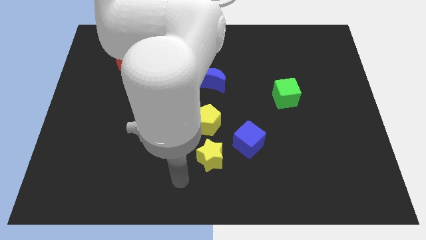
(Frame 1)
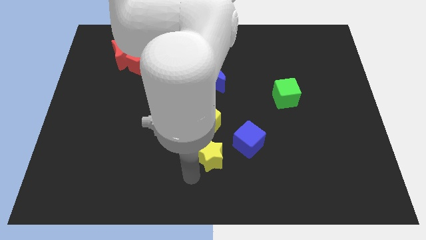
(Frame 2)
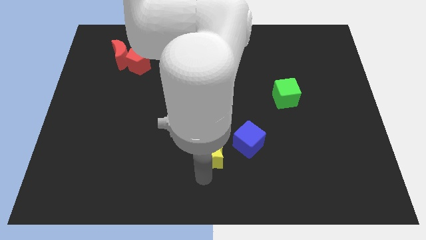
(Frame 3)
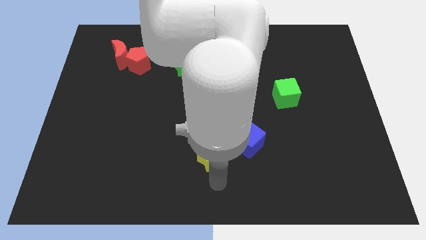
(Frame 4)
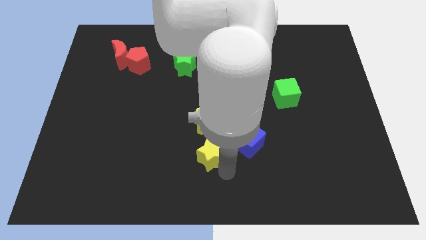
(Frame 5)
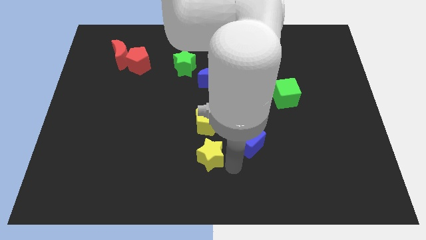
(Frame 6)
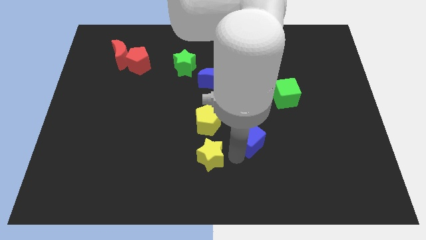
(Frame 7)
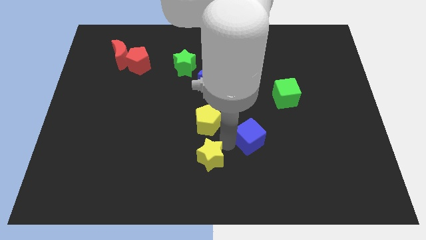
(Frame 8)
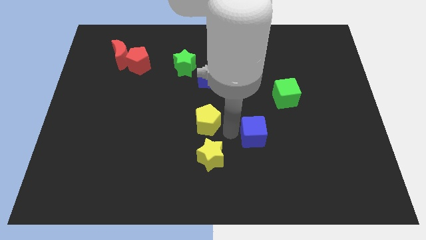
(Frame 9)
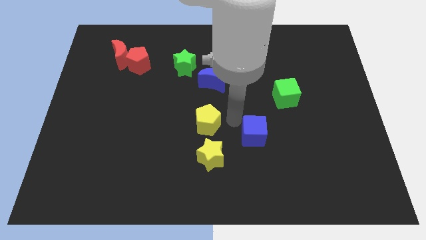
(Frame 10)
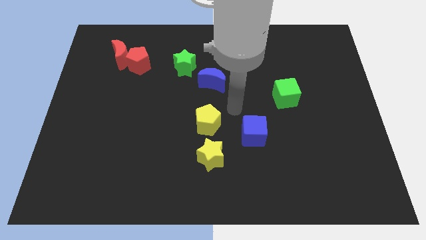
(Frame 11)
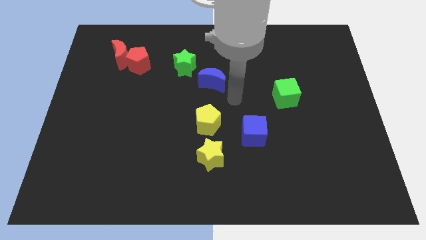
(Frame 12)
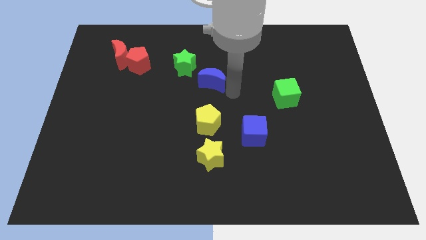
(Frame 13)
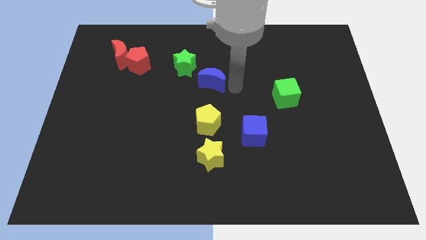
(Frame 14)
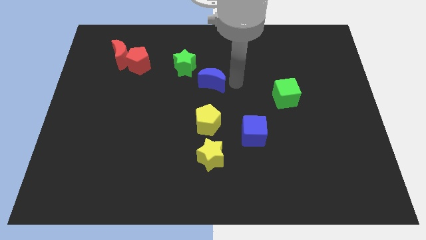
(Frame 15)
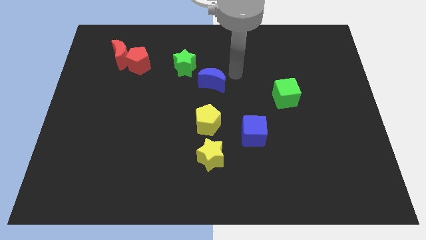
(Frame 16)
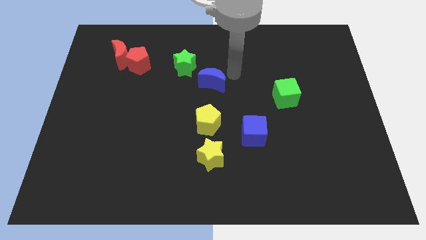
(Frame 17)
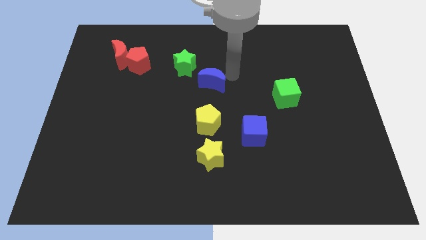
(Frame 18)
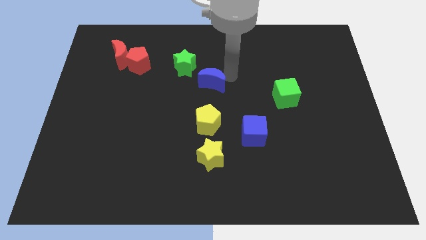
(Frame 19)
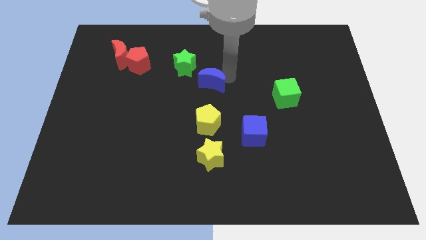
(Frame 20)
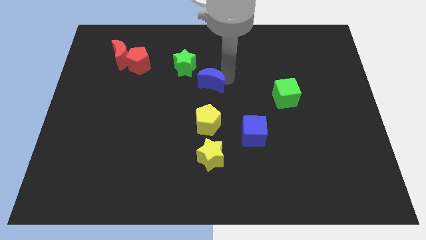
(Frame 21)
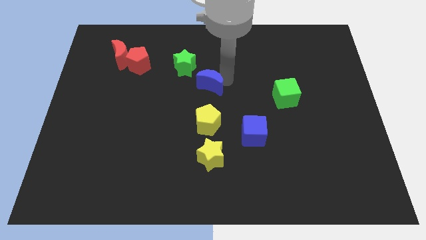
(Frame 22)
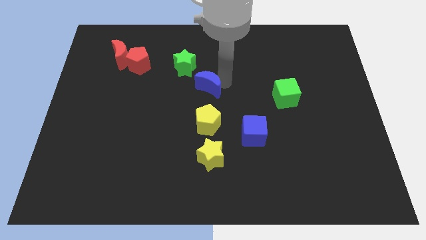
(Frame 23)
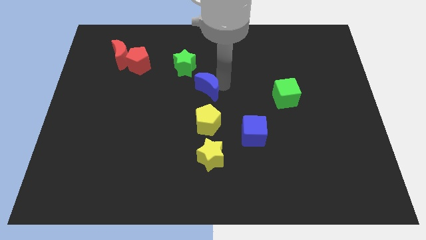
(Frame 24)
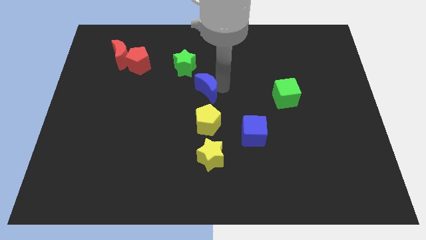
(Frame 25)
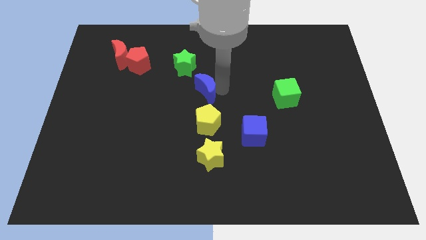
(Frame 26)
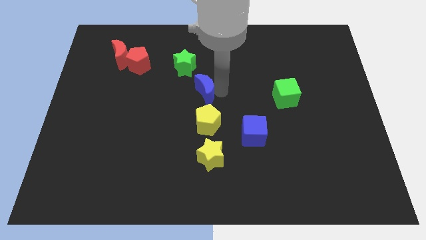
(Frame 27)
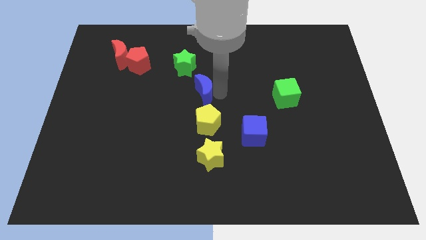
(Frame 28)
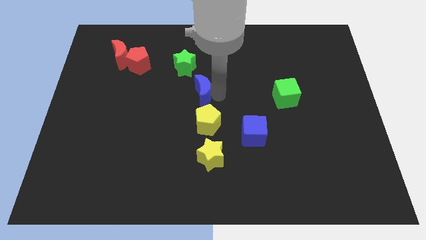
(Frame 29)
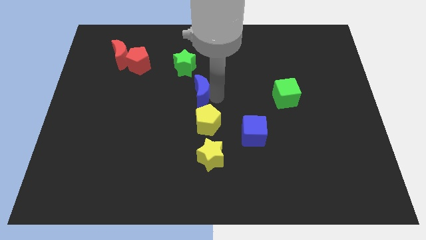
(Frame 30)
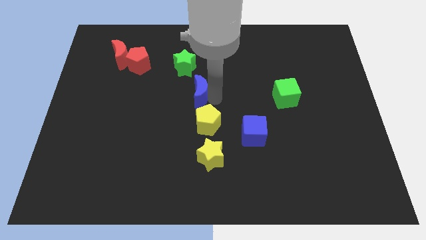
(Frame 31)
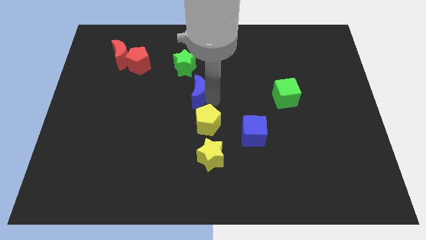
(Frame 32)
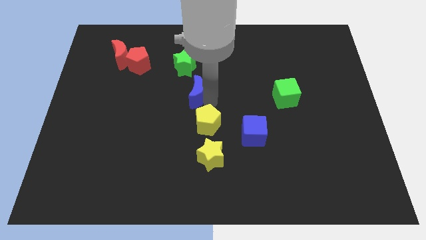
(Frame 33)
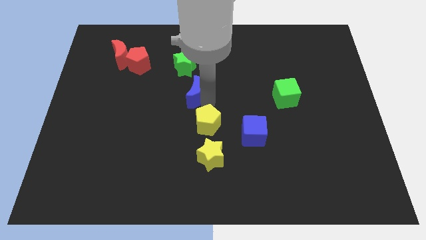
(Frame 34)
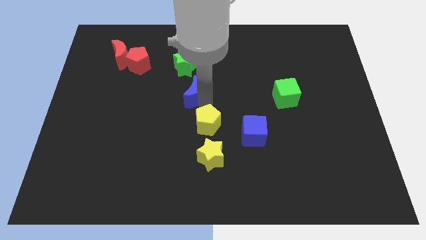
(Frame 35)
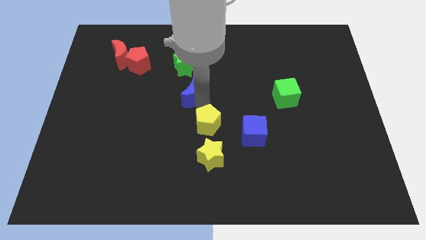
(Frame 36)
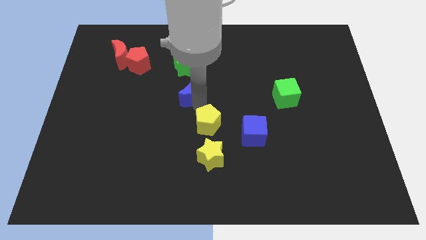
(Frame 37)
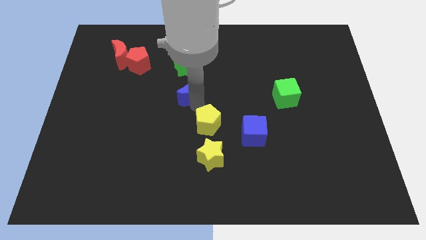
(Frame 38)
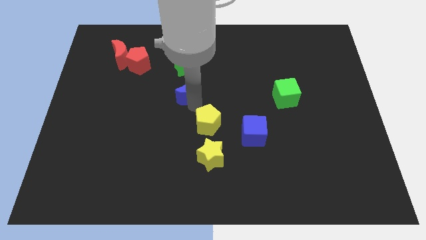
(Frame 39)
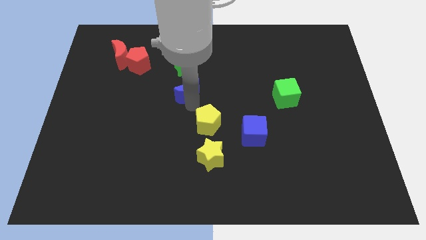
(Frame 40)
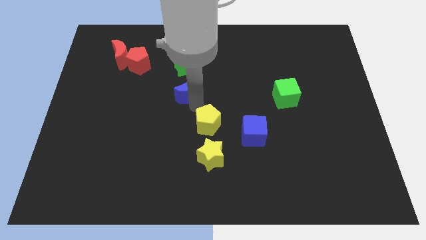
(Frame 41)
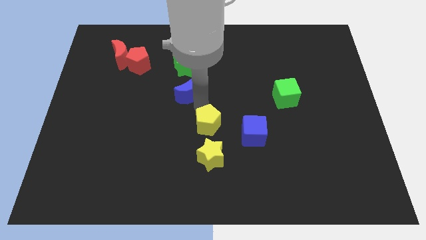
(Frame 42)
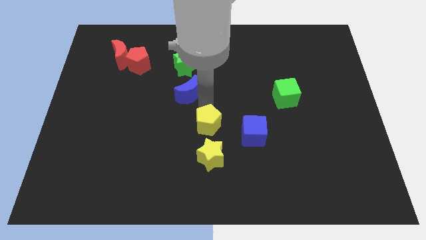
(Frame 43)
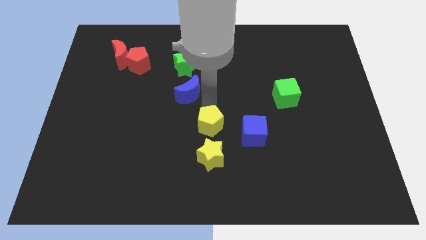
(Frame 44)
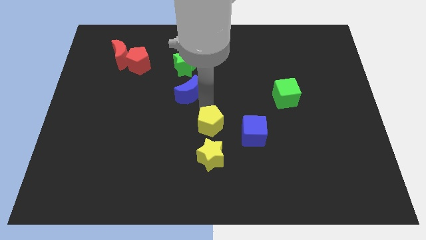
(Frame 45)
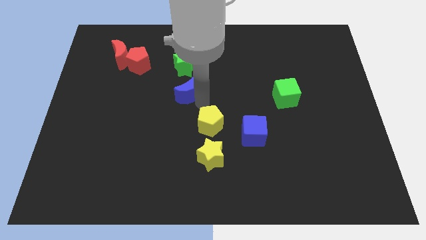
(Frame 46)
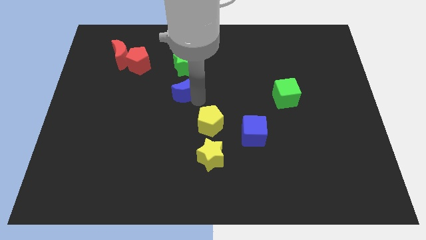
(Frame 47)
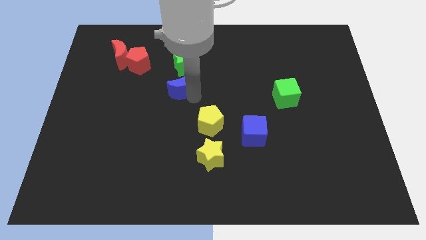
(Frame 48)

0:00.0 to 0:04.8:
push the blue moon somewhat to the left

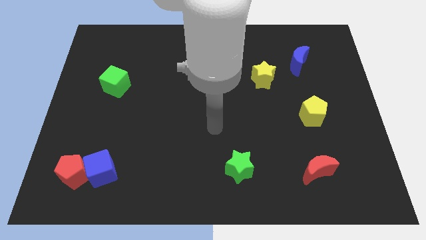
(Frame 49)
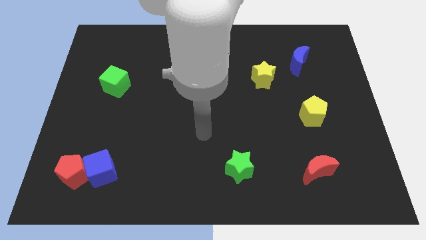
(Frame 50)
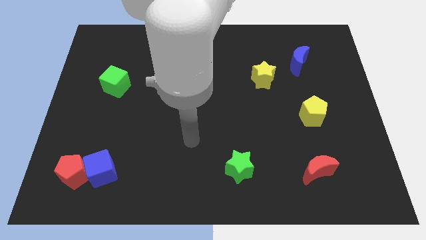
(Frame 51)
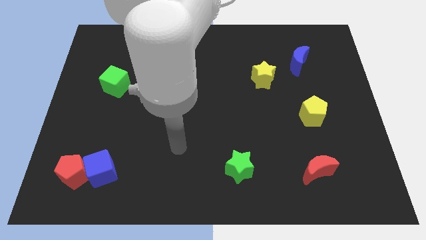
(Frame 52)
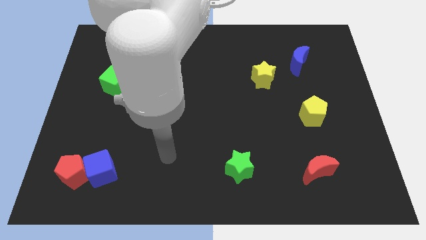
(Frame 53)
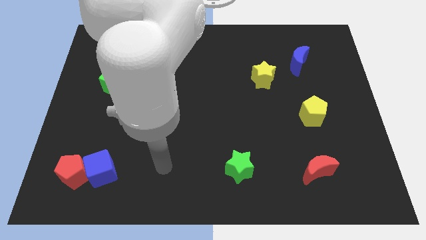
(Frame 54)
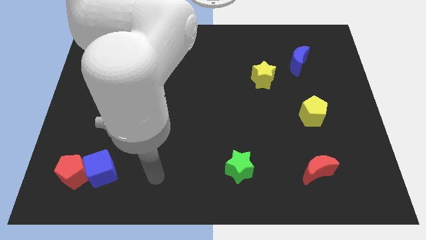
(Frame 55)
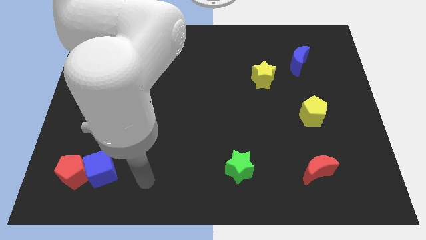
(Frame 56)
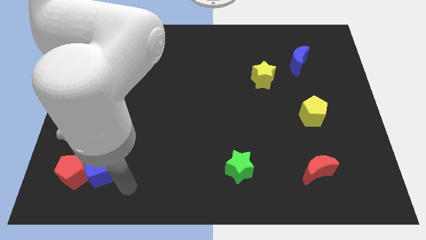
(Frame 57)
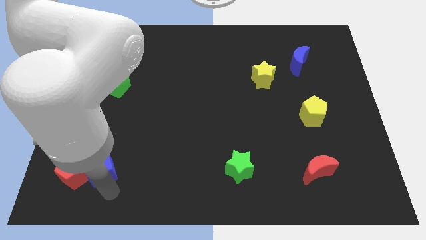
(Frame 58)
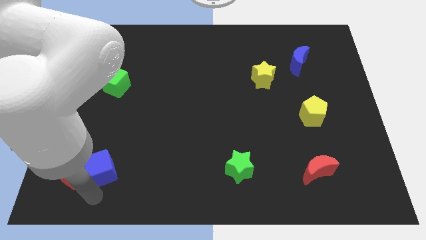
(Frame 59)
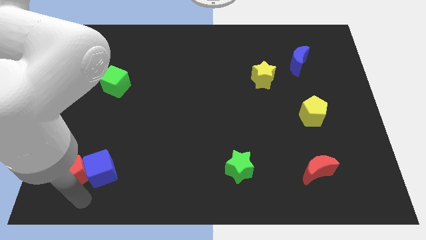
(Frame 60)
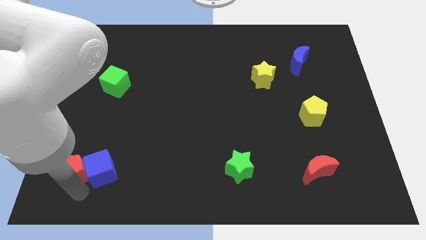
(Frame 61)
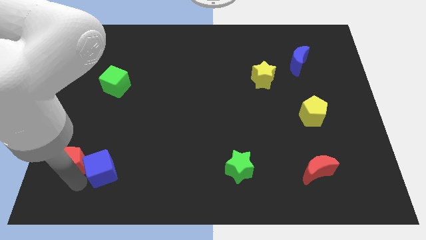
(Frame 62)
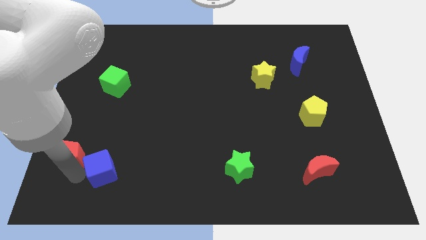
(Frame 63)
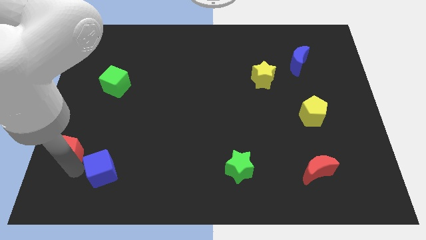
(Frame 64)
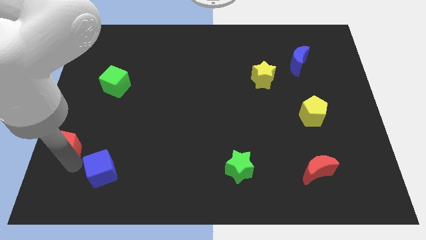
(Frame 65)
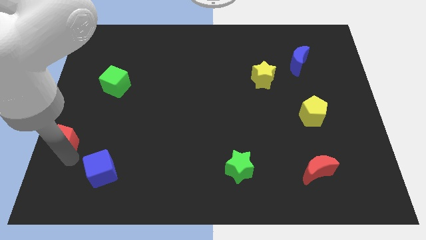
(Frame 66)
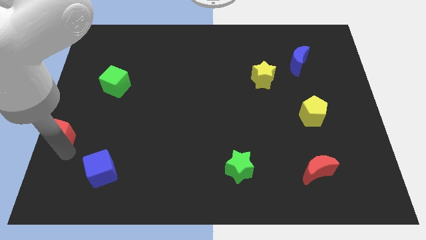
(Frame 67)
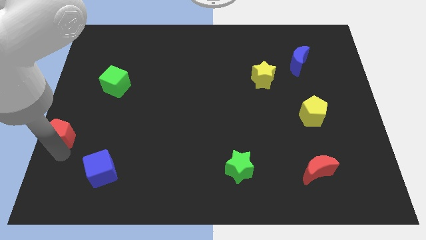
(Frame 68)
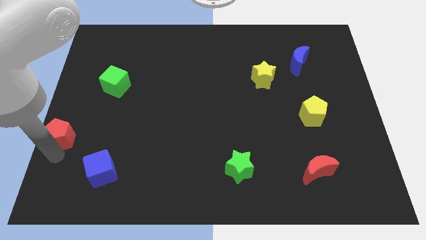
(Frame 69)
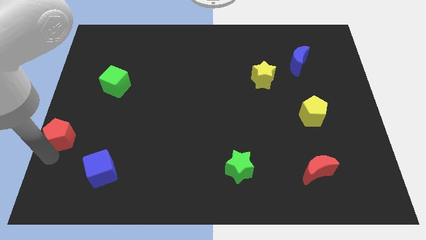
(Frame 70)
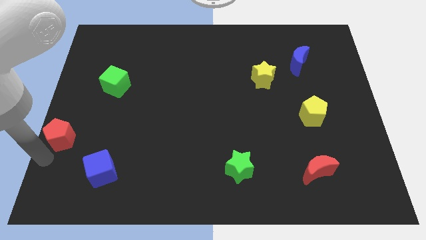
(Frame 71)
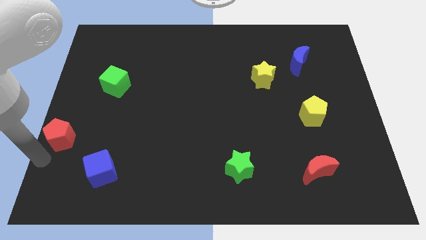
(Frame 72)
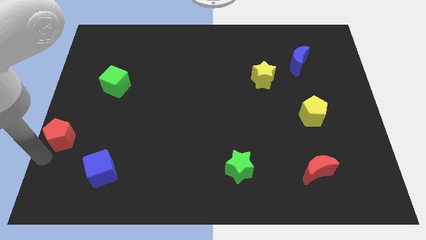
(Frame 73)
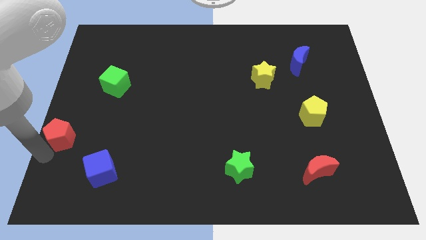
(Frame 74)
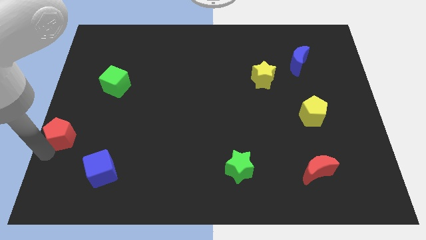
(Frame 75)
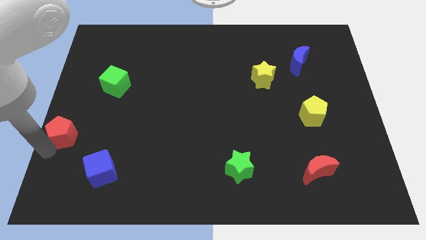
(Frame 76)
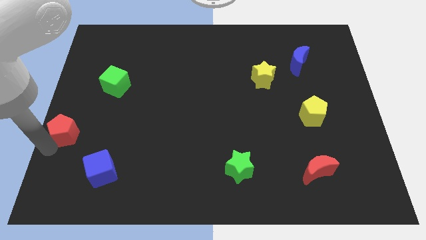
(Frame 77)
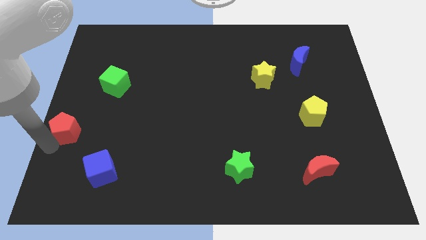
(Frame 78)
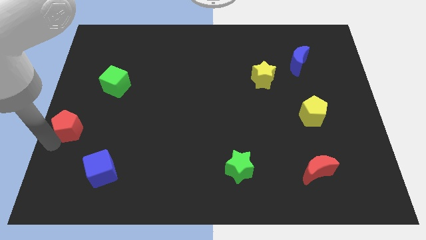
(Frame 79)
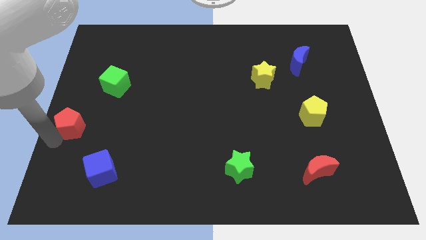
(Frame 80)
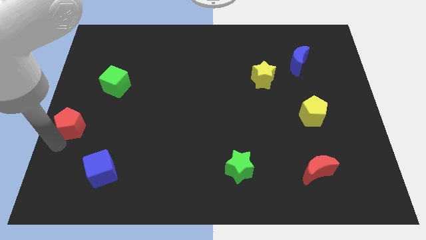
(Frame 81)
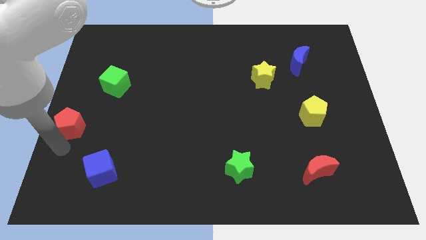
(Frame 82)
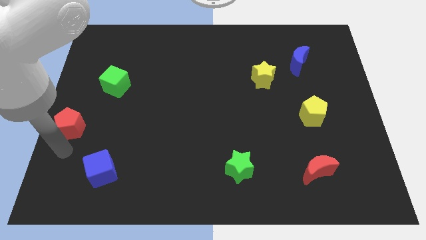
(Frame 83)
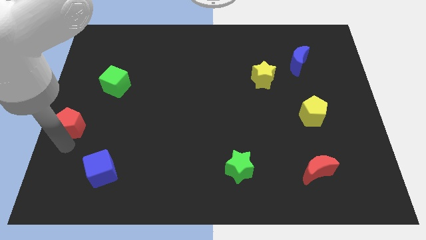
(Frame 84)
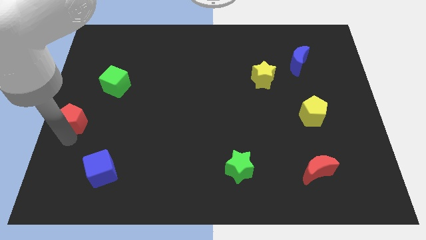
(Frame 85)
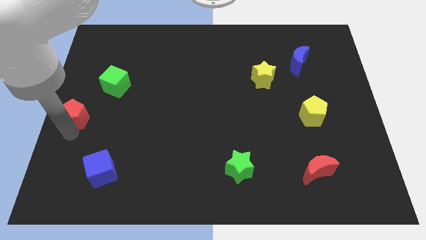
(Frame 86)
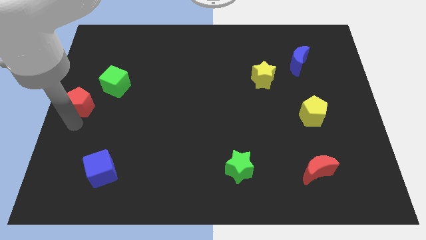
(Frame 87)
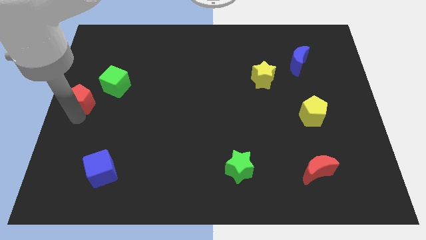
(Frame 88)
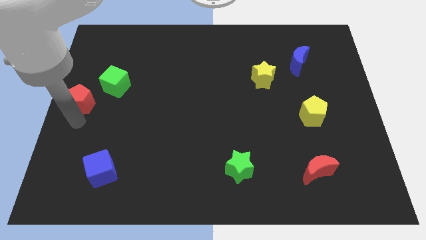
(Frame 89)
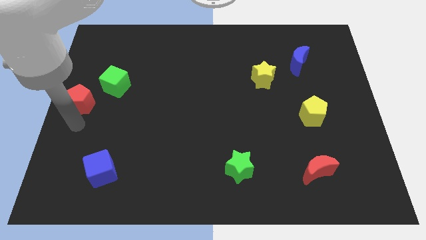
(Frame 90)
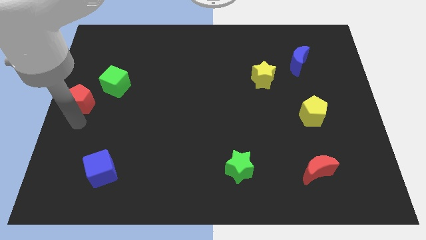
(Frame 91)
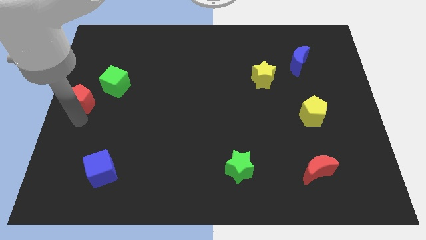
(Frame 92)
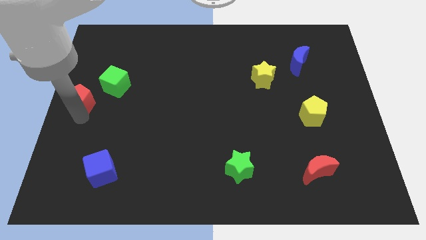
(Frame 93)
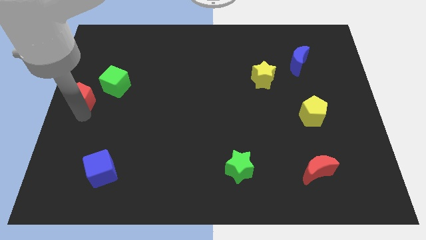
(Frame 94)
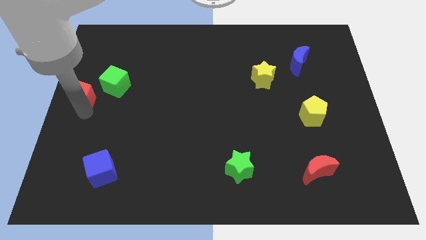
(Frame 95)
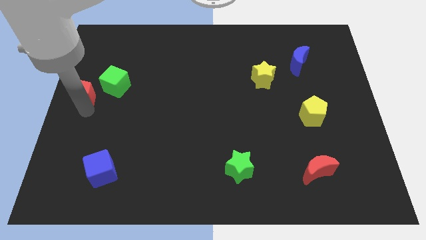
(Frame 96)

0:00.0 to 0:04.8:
push the red pentagon up
